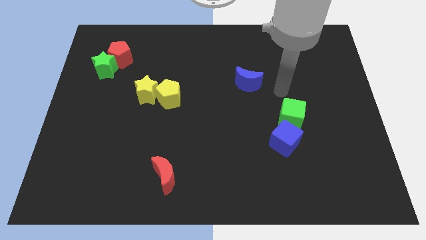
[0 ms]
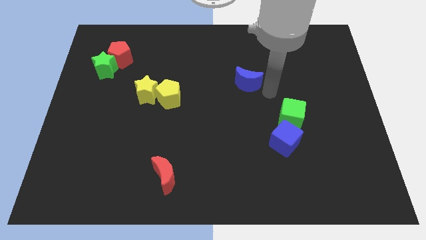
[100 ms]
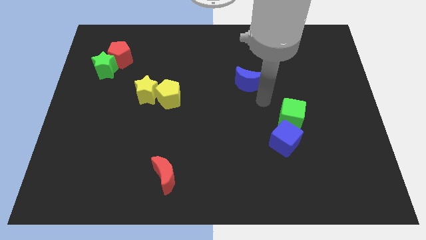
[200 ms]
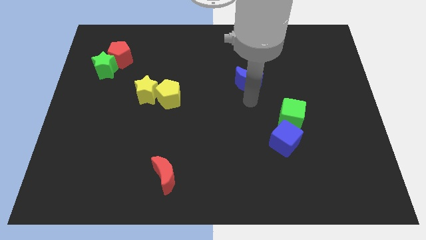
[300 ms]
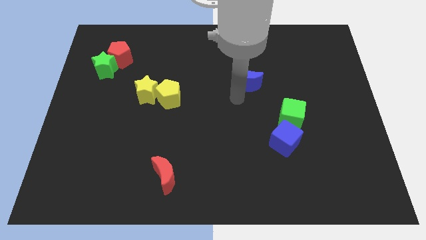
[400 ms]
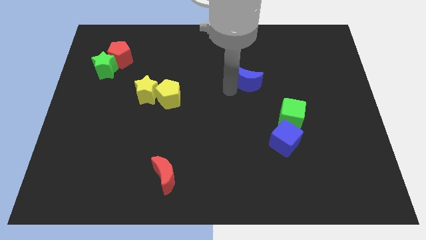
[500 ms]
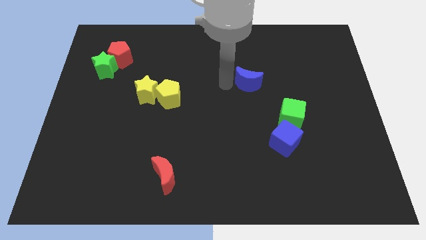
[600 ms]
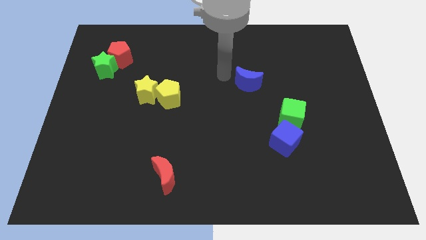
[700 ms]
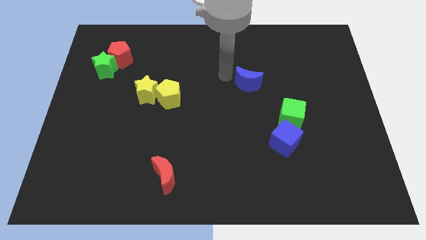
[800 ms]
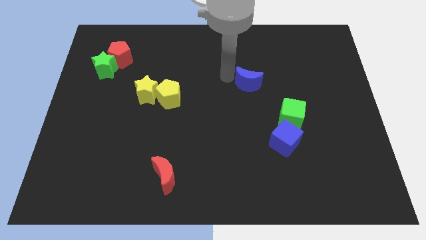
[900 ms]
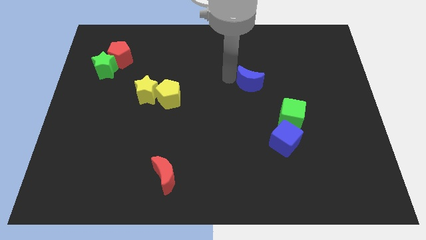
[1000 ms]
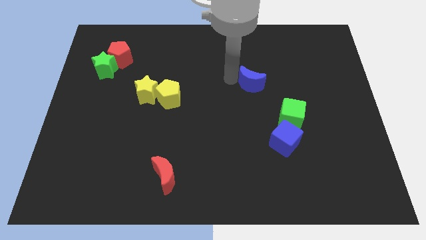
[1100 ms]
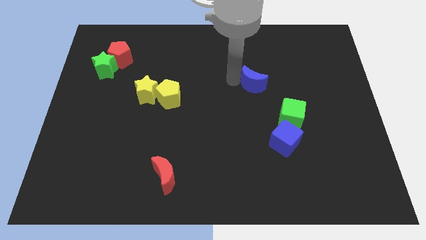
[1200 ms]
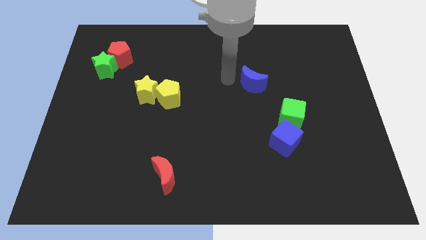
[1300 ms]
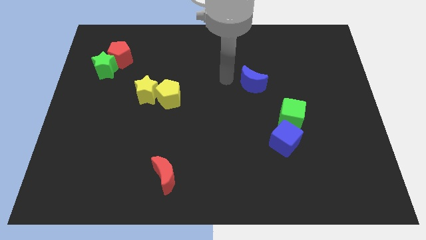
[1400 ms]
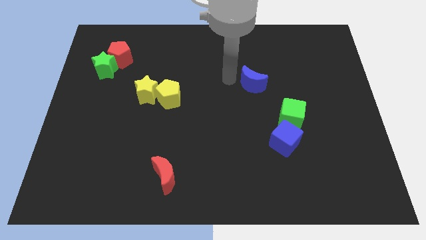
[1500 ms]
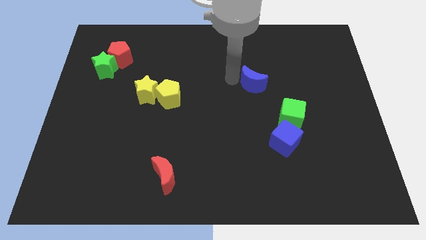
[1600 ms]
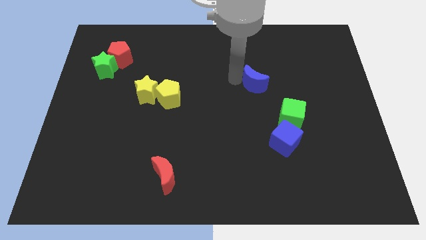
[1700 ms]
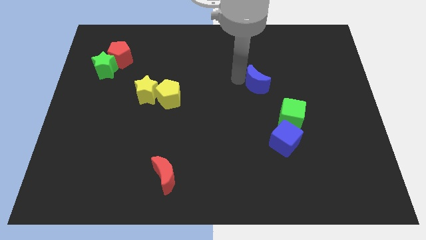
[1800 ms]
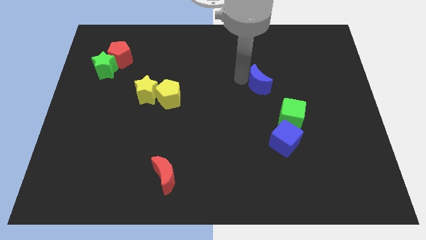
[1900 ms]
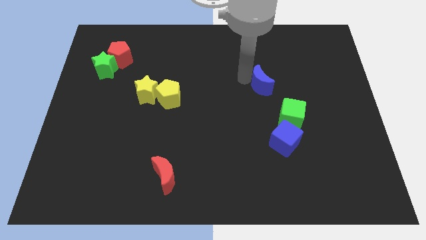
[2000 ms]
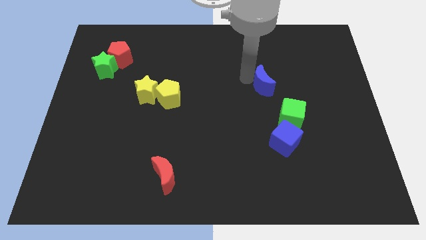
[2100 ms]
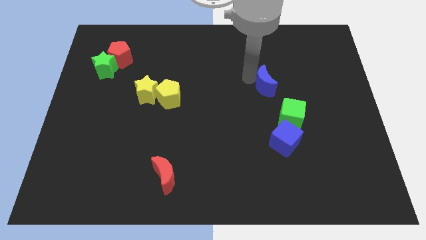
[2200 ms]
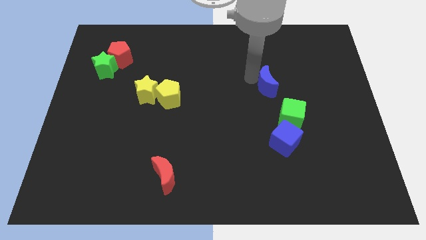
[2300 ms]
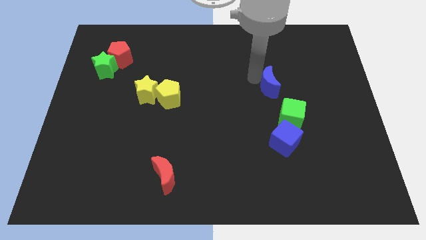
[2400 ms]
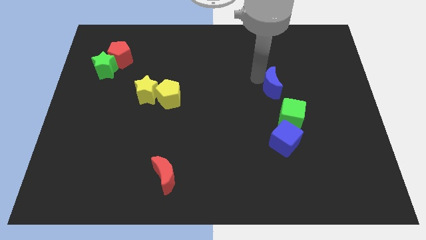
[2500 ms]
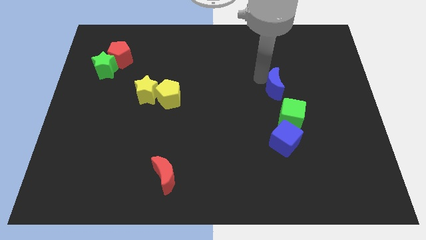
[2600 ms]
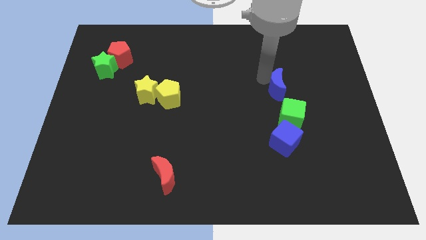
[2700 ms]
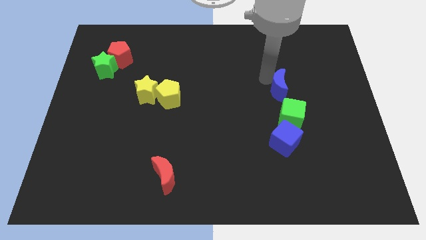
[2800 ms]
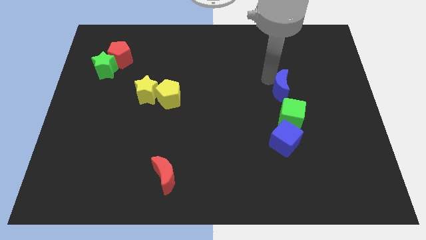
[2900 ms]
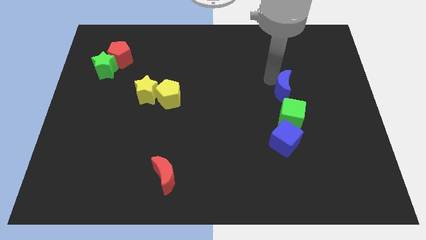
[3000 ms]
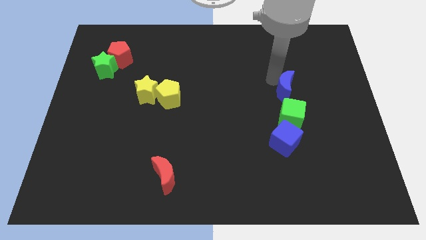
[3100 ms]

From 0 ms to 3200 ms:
move the blue moon a little bit downwards and to the right

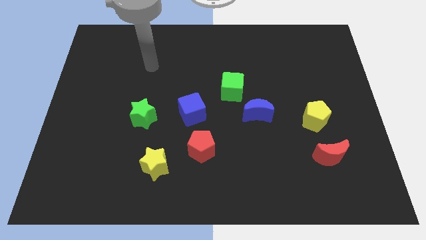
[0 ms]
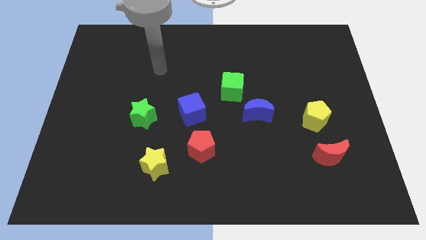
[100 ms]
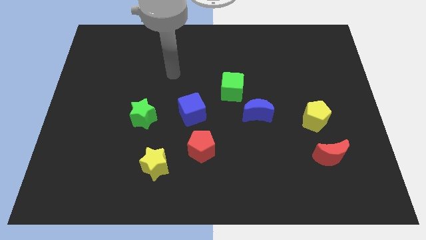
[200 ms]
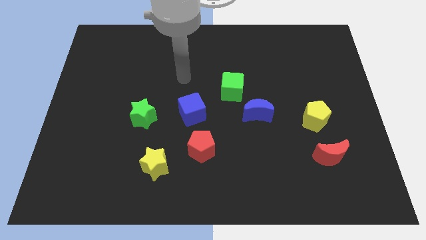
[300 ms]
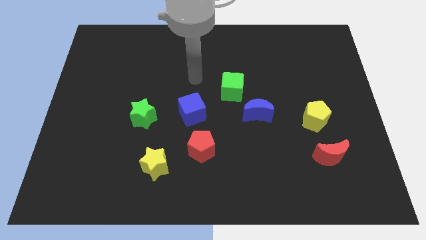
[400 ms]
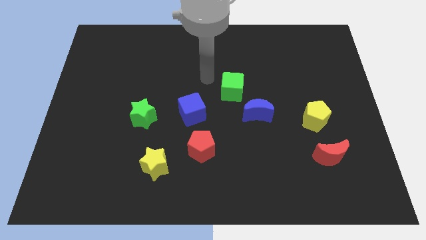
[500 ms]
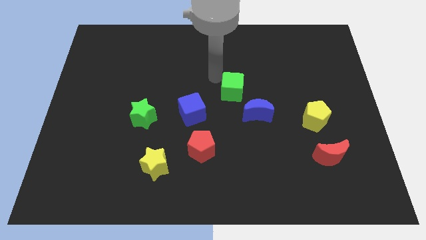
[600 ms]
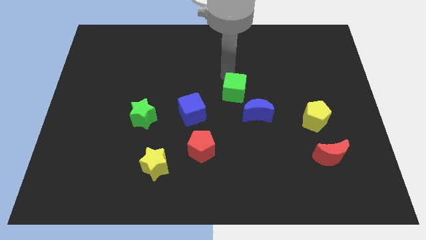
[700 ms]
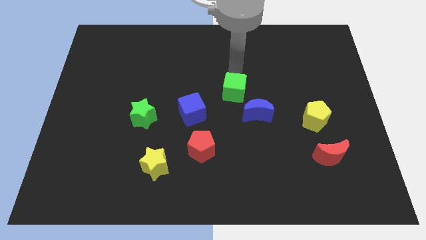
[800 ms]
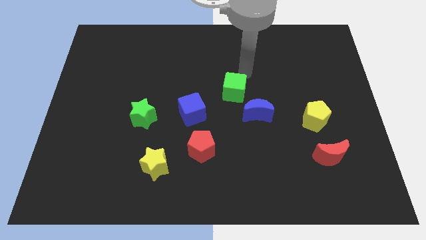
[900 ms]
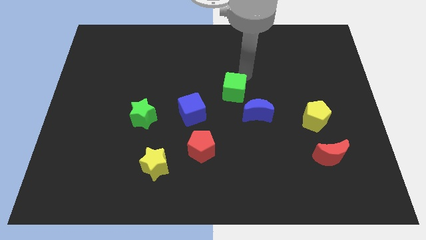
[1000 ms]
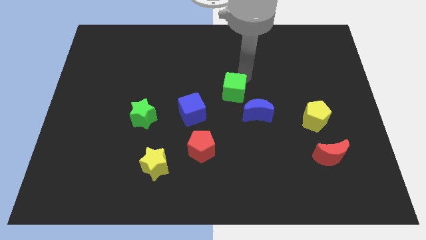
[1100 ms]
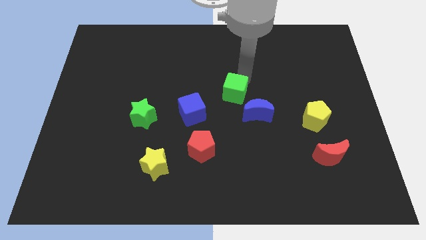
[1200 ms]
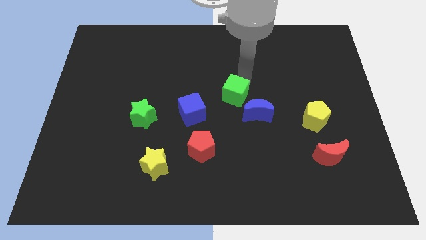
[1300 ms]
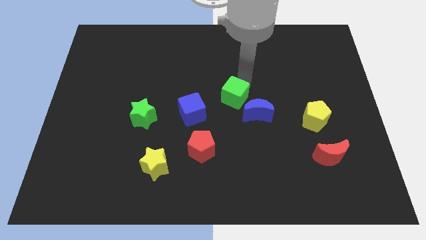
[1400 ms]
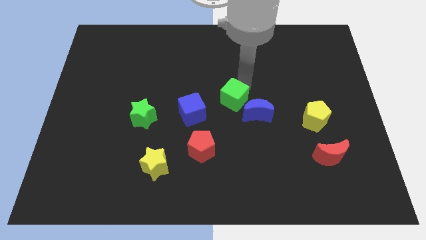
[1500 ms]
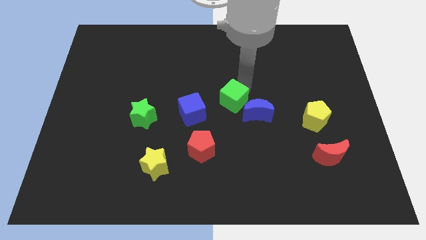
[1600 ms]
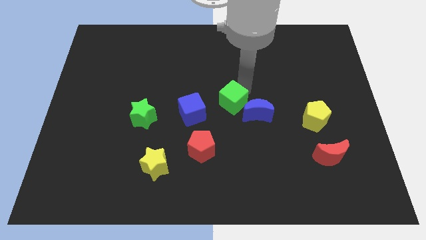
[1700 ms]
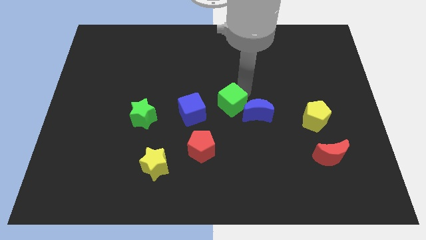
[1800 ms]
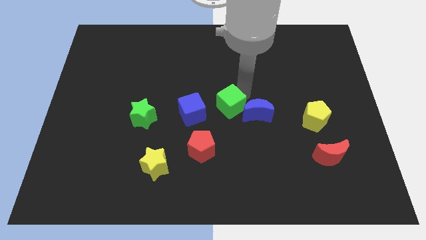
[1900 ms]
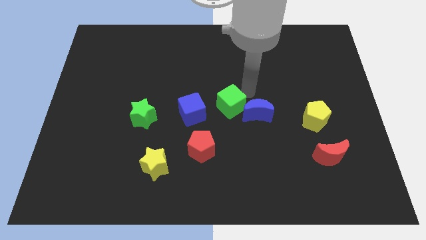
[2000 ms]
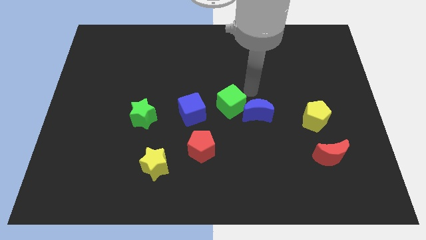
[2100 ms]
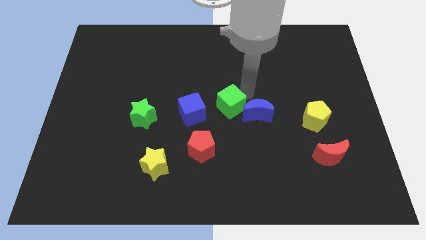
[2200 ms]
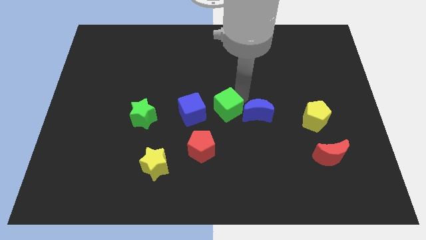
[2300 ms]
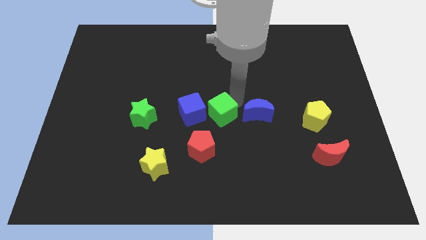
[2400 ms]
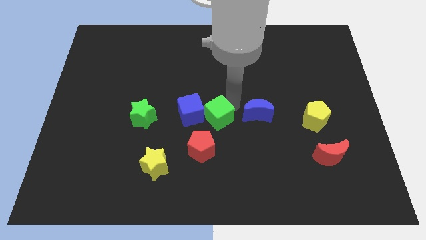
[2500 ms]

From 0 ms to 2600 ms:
slide the green cube down and to the left diagonally a little bit

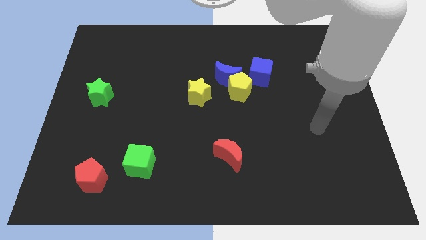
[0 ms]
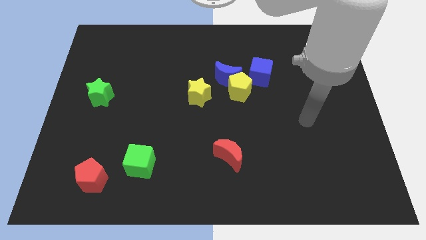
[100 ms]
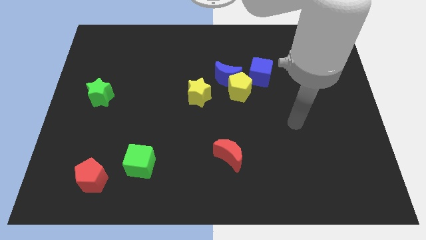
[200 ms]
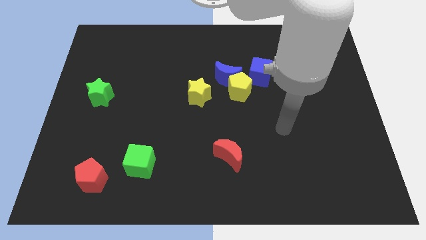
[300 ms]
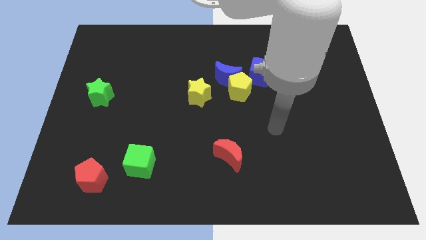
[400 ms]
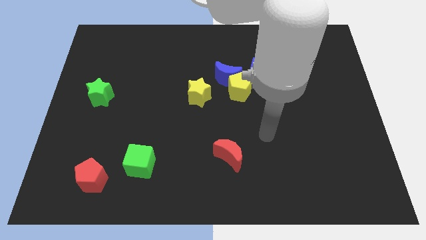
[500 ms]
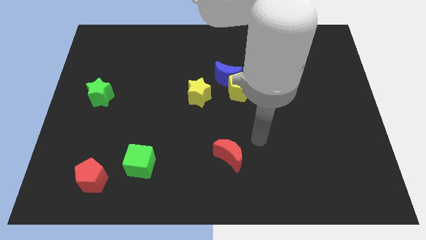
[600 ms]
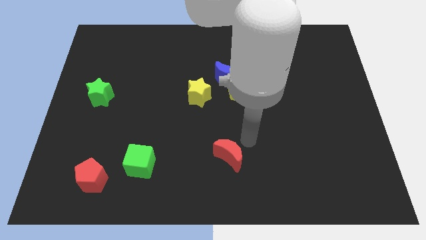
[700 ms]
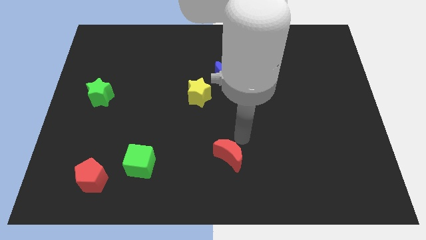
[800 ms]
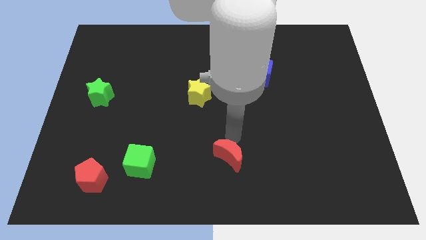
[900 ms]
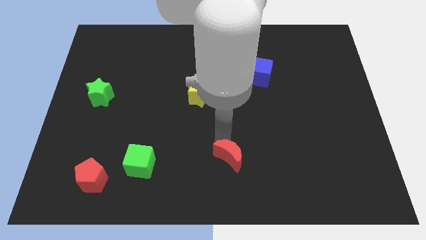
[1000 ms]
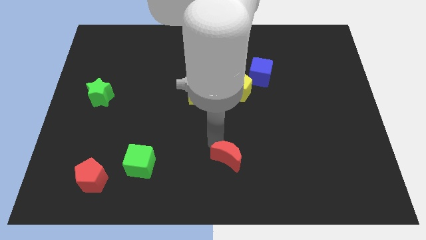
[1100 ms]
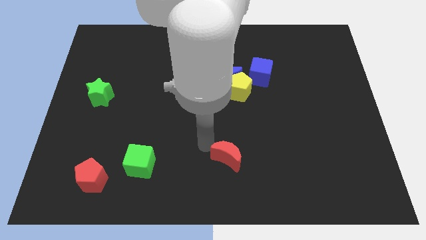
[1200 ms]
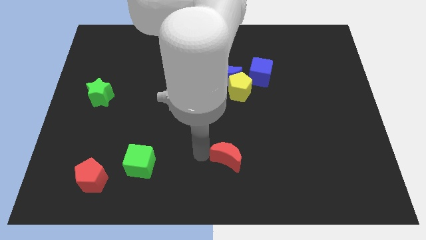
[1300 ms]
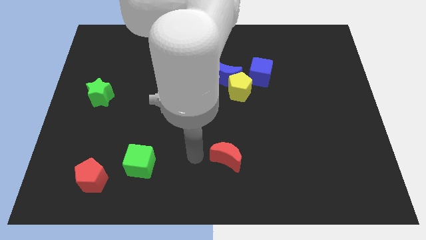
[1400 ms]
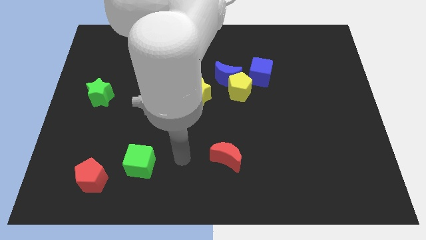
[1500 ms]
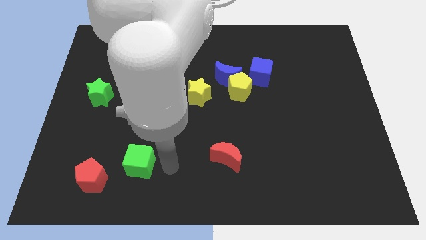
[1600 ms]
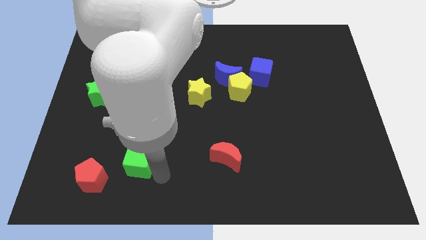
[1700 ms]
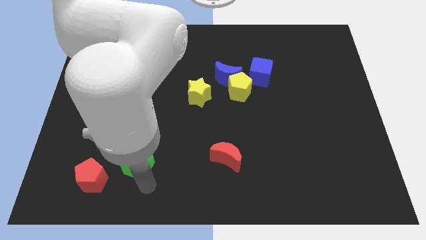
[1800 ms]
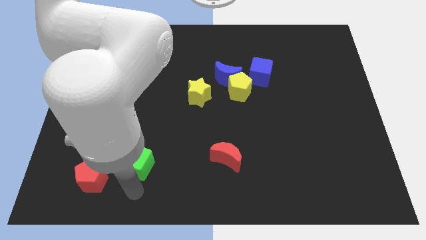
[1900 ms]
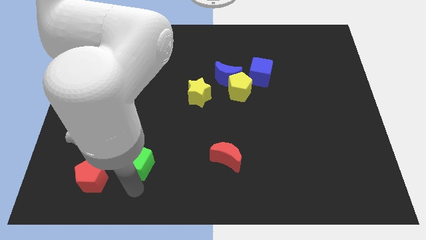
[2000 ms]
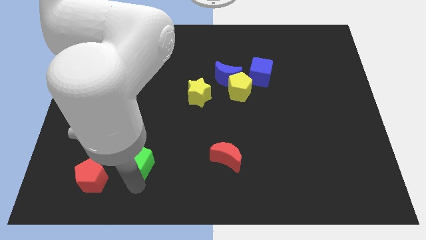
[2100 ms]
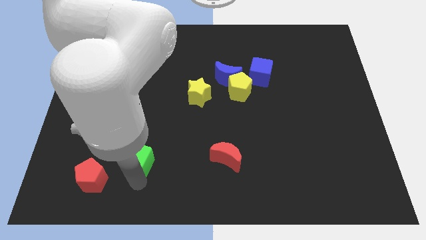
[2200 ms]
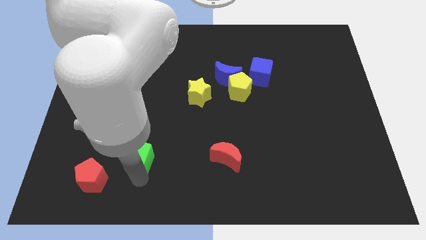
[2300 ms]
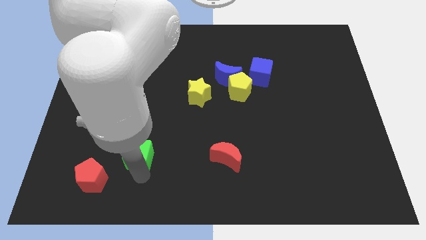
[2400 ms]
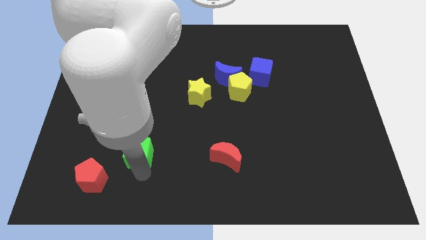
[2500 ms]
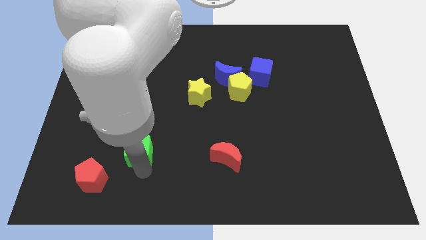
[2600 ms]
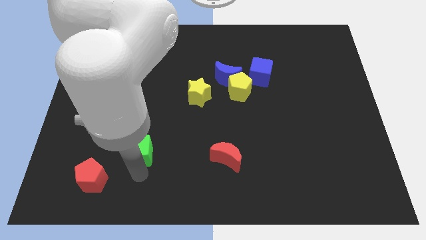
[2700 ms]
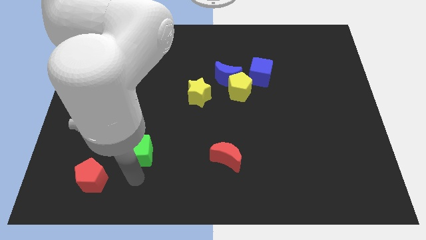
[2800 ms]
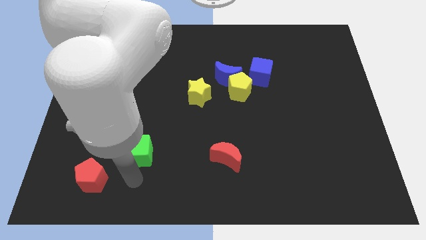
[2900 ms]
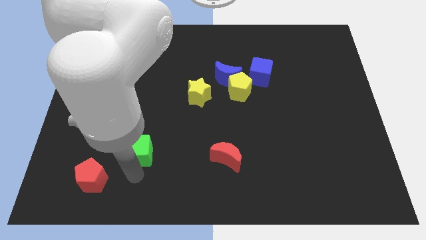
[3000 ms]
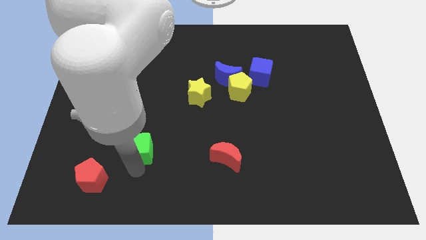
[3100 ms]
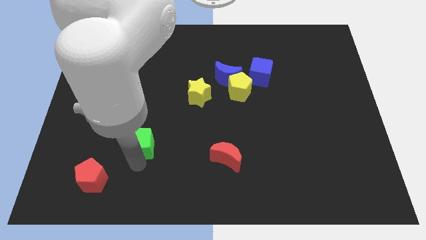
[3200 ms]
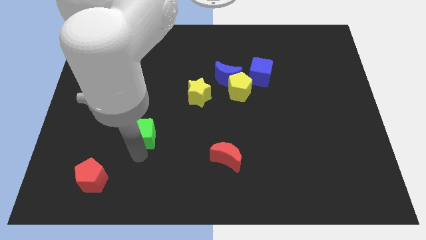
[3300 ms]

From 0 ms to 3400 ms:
move the green cube slightly up
